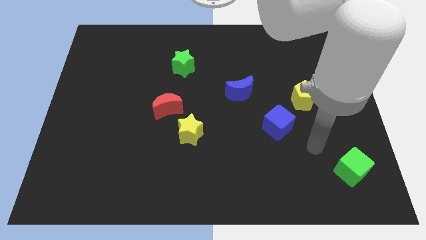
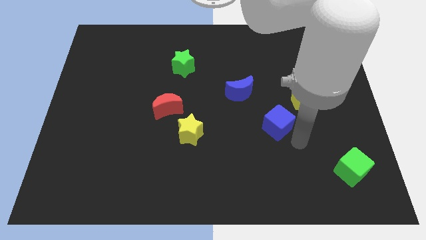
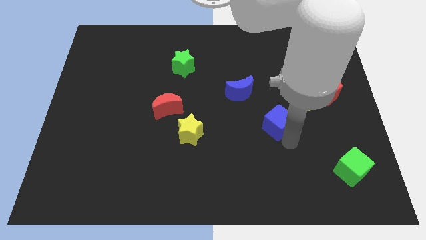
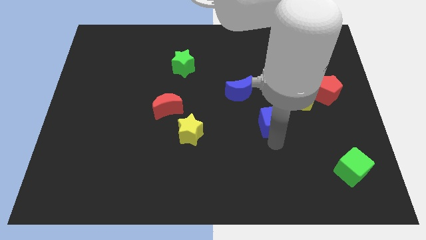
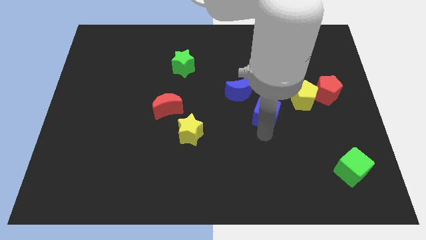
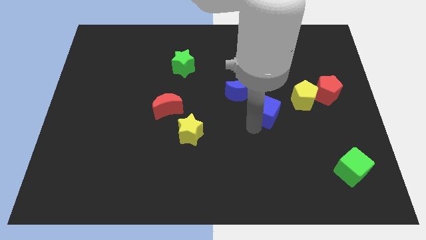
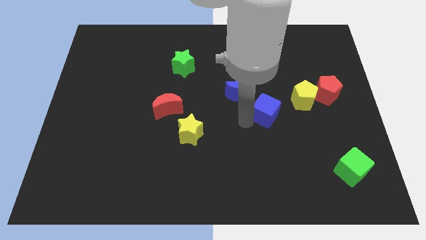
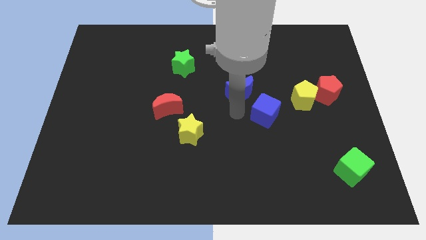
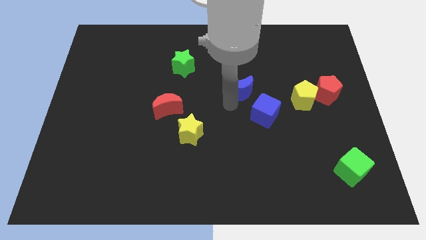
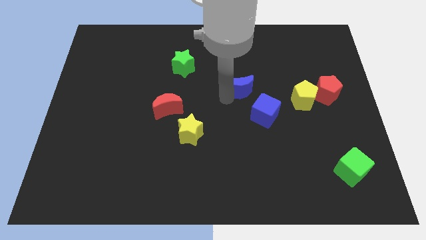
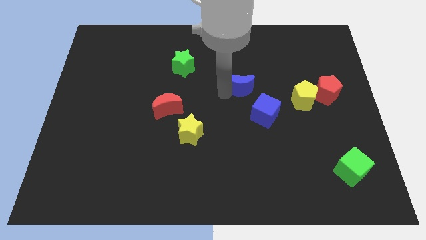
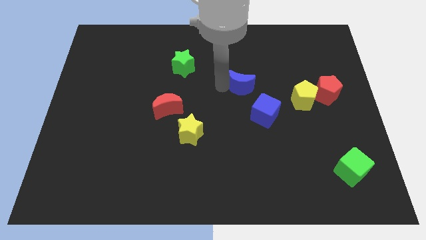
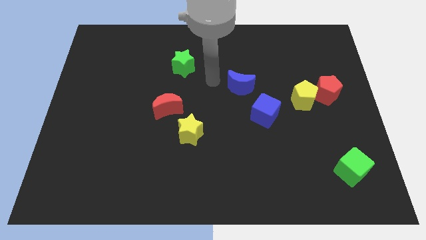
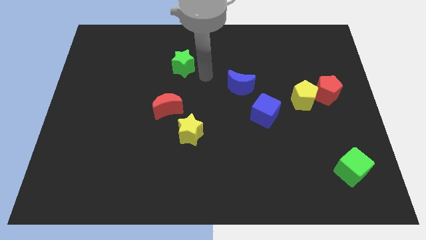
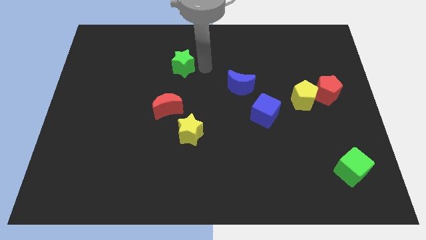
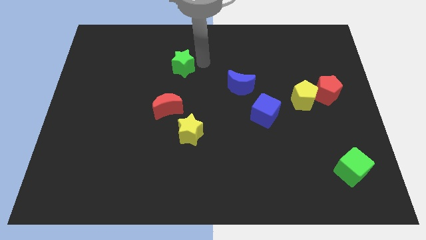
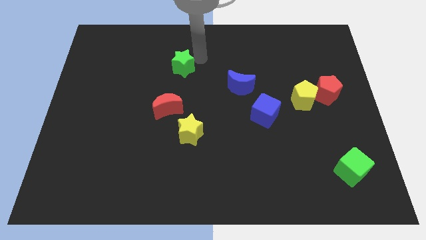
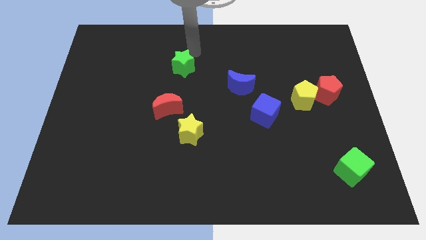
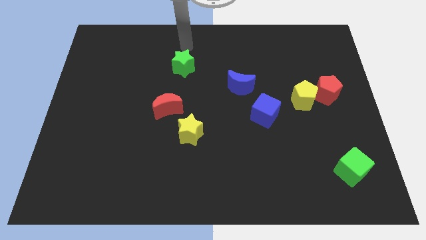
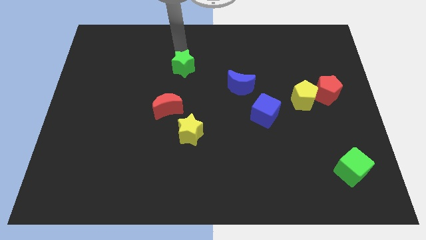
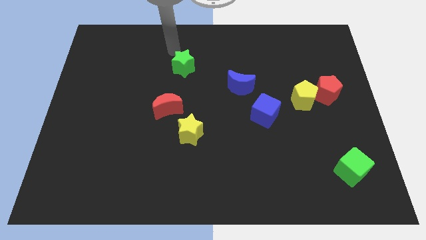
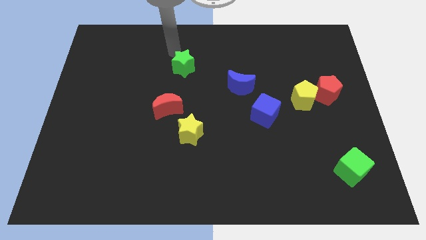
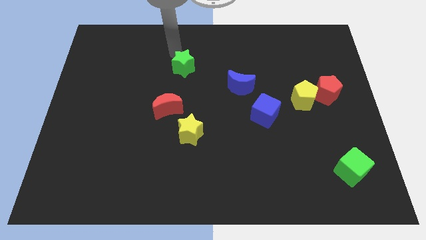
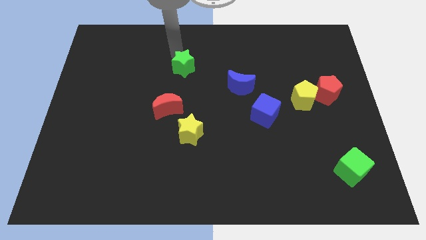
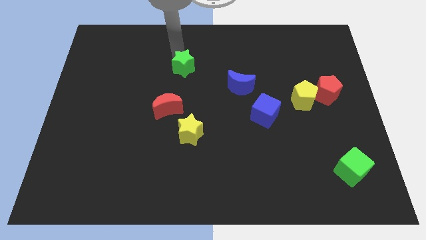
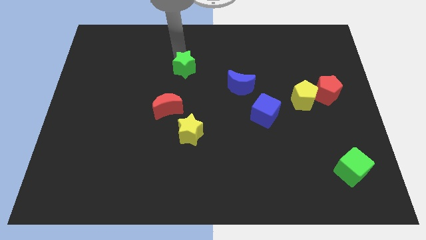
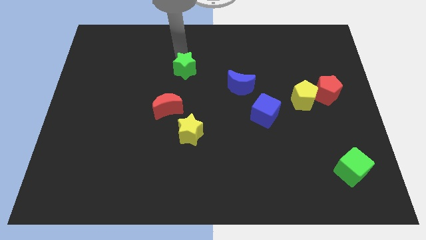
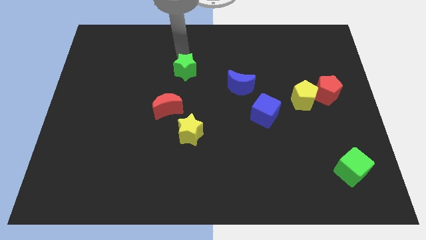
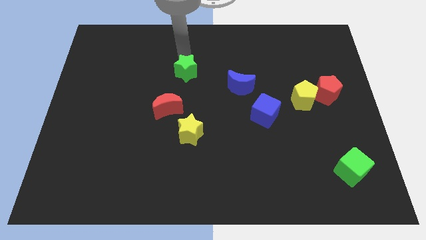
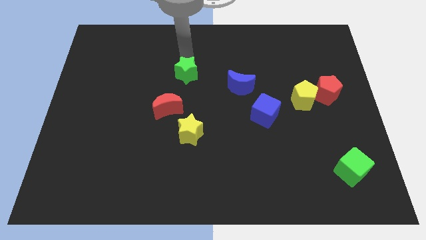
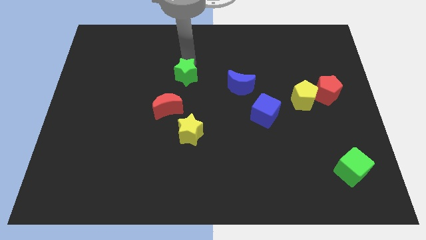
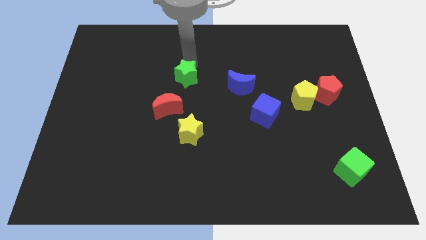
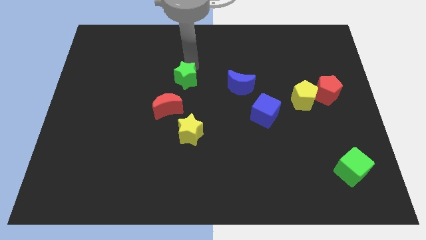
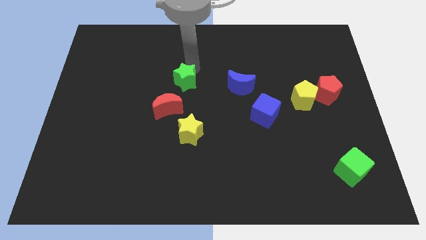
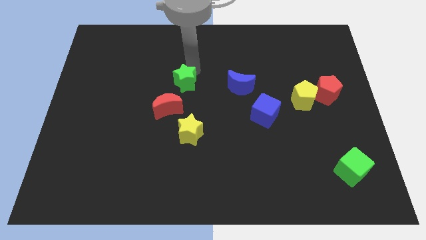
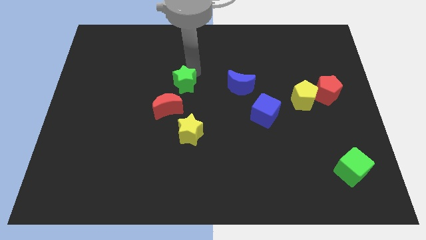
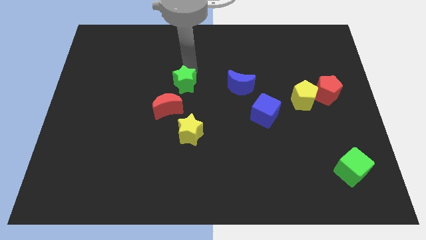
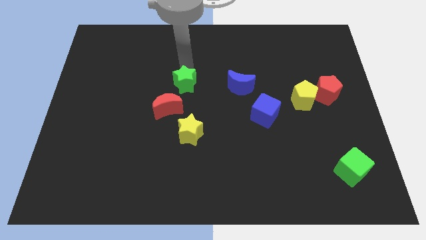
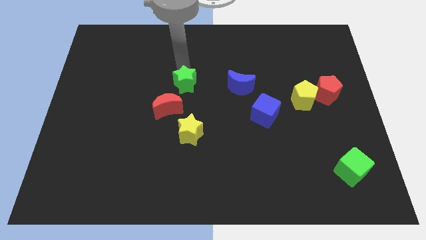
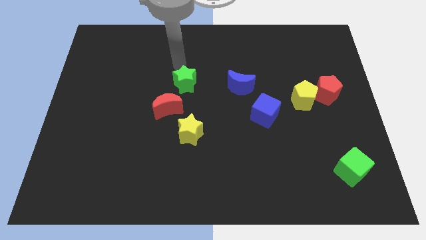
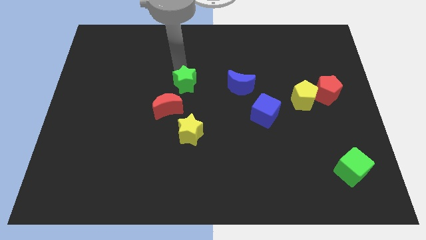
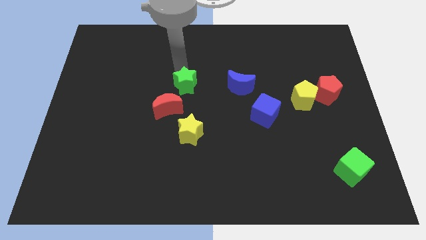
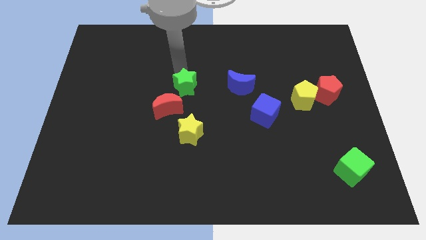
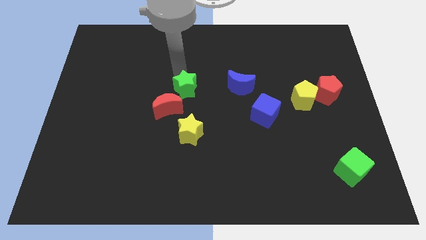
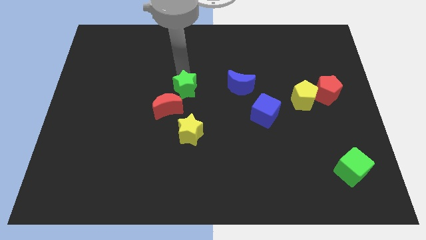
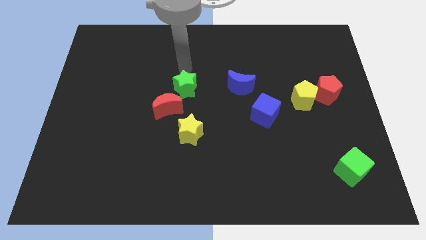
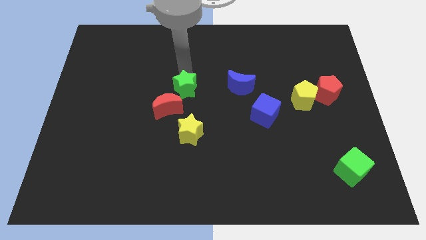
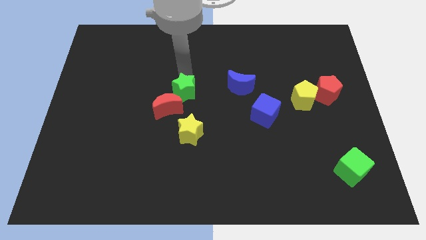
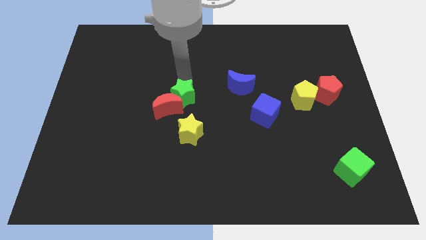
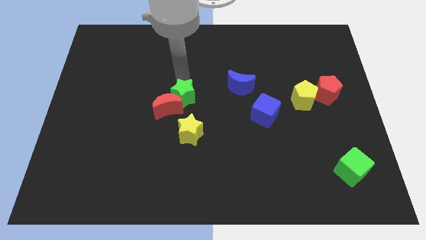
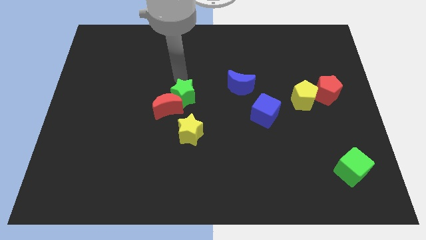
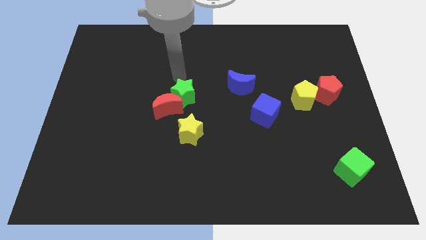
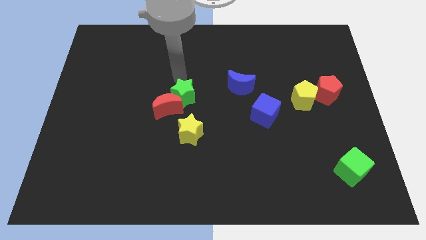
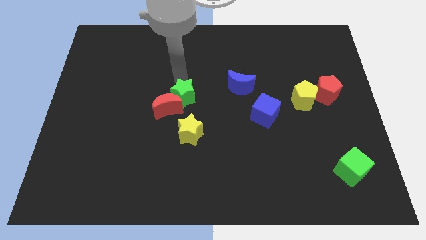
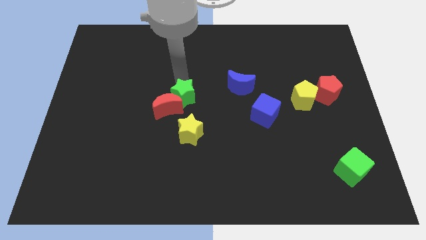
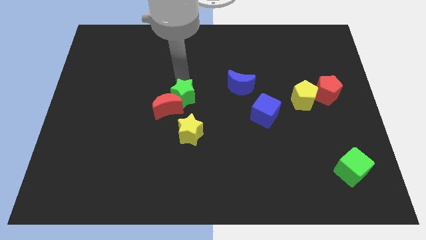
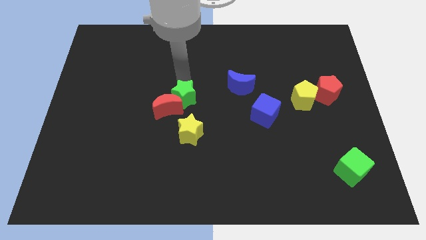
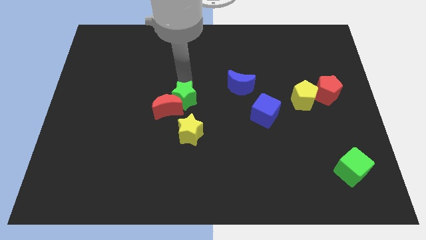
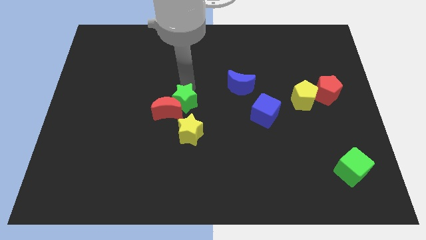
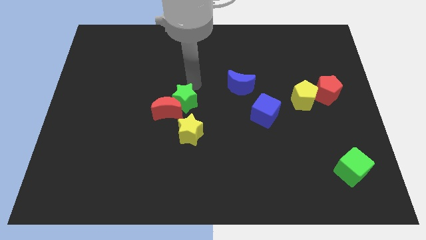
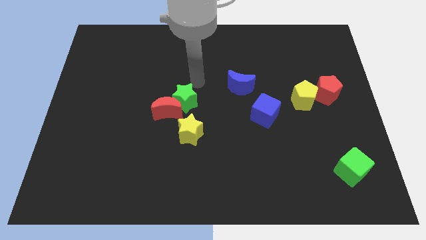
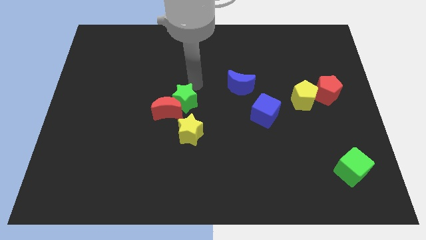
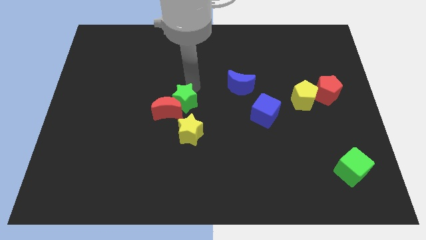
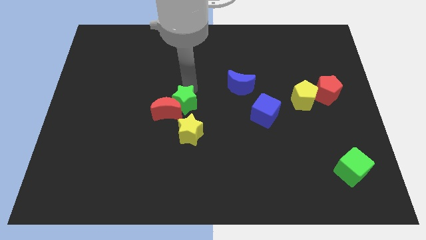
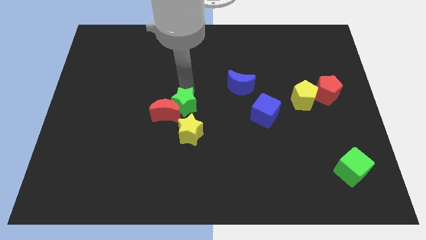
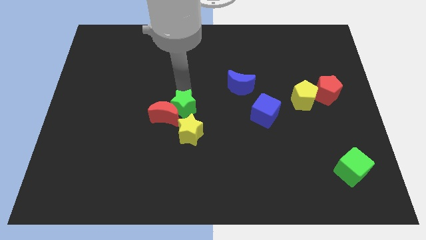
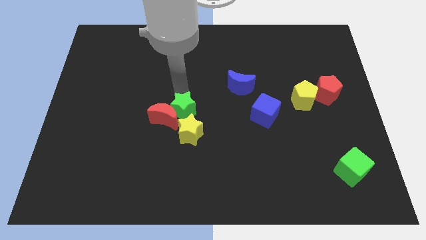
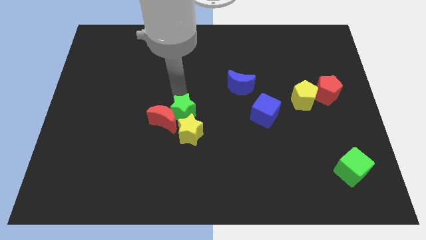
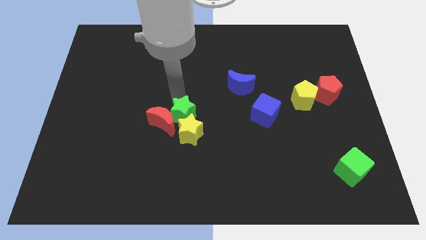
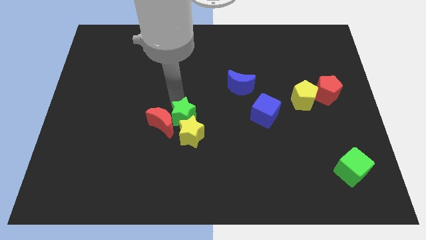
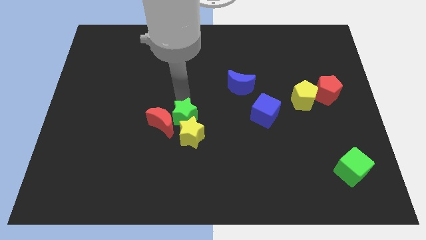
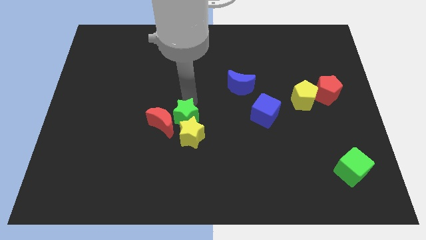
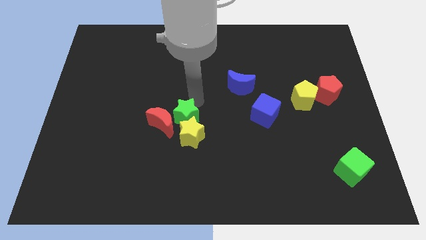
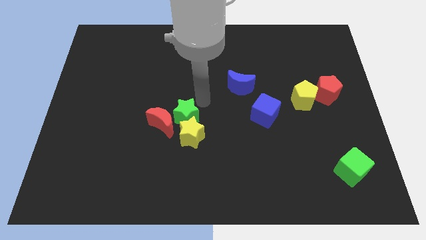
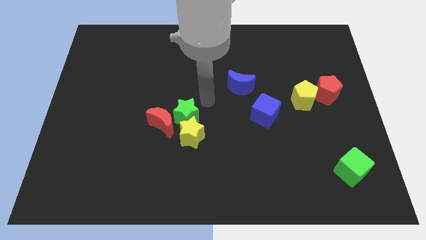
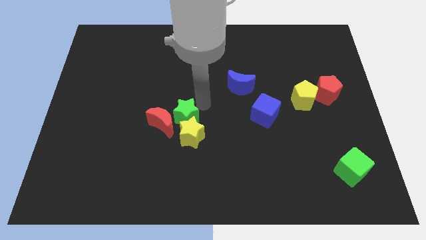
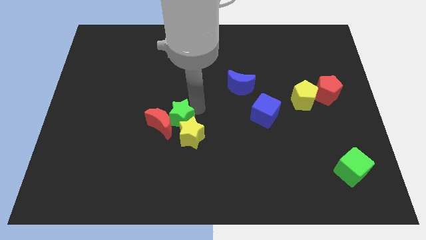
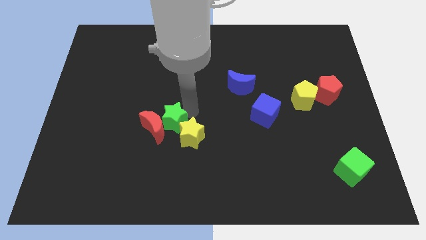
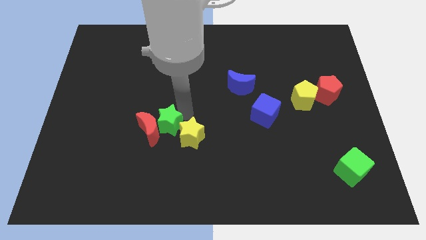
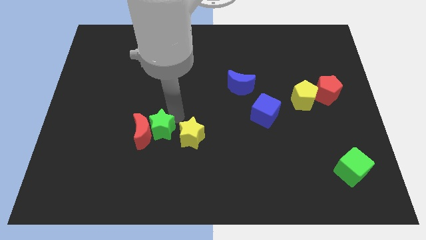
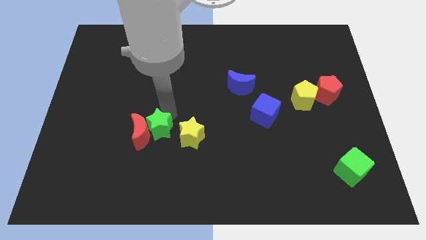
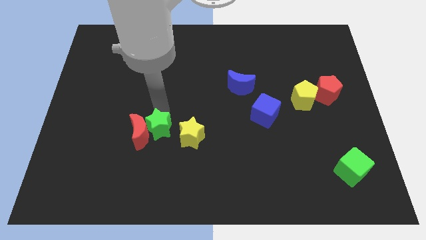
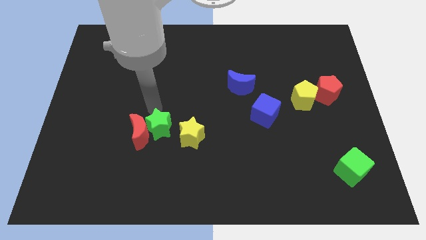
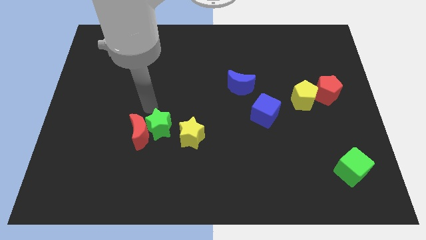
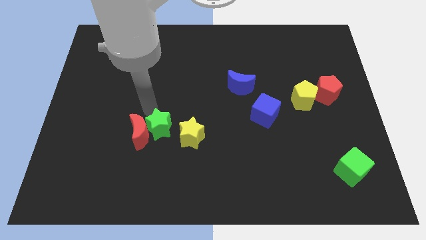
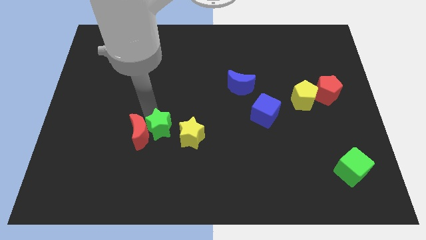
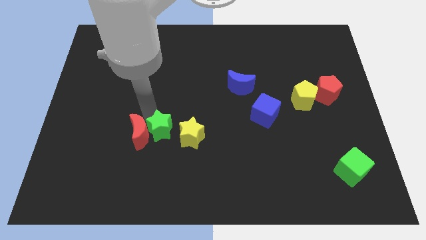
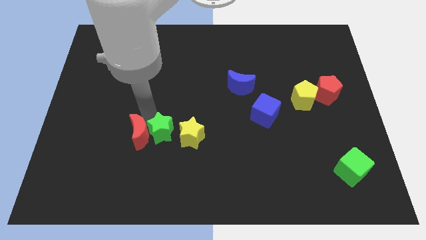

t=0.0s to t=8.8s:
move the green star down
